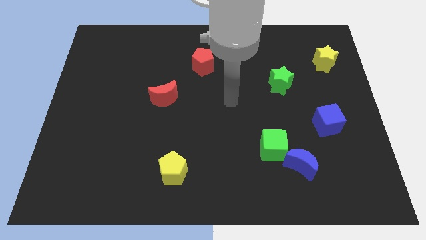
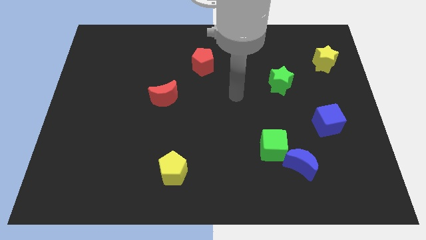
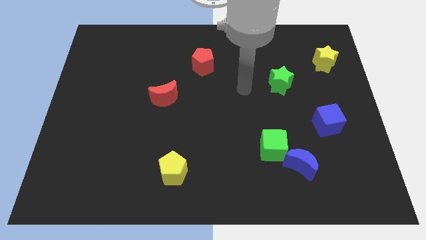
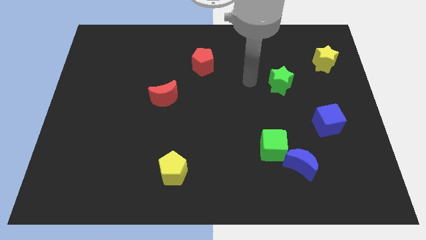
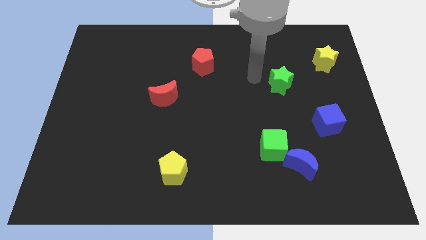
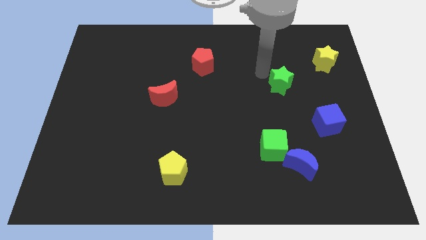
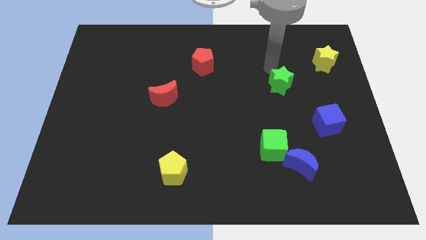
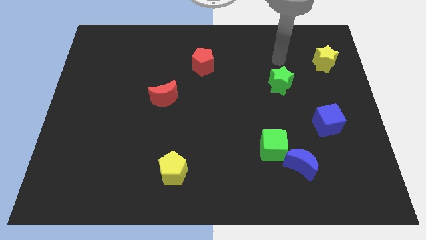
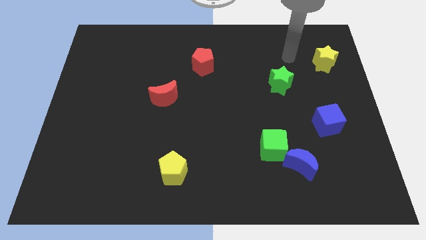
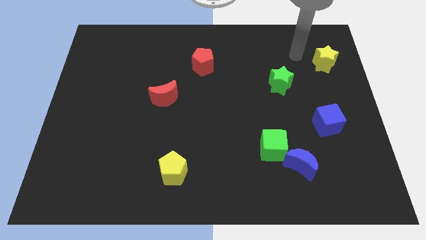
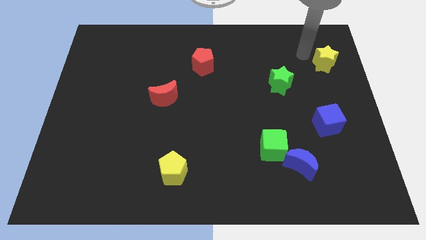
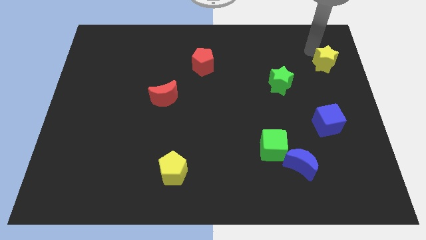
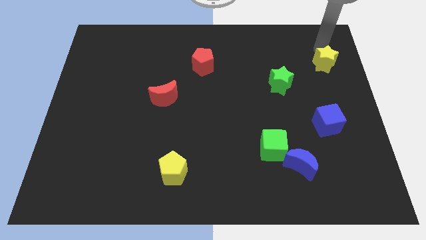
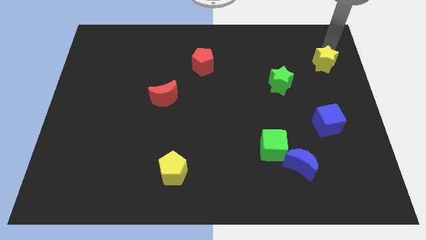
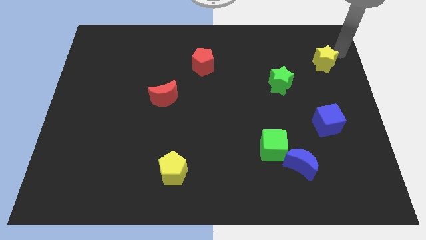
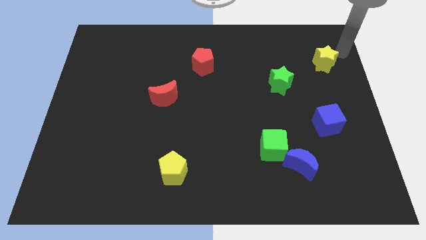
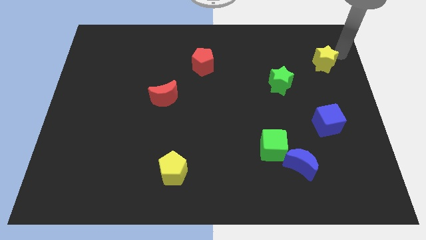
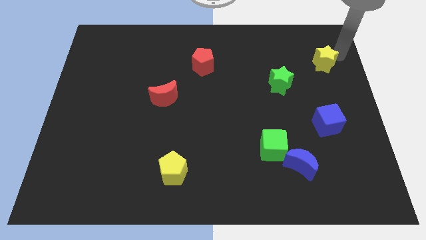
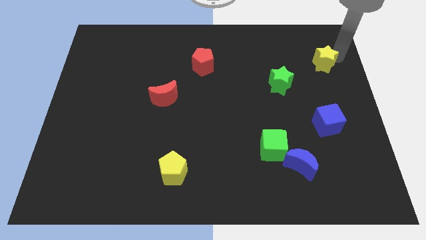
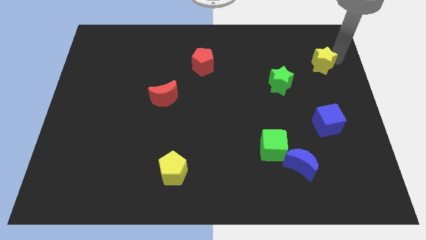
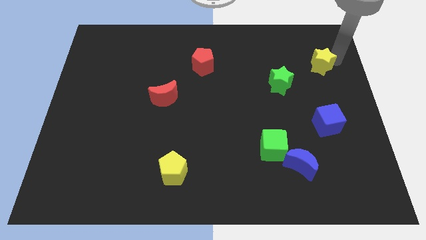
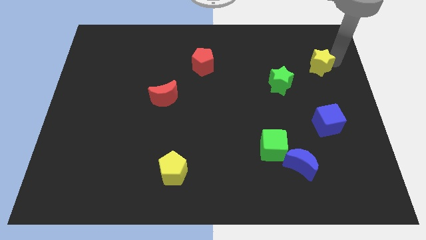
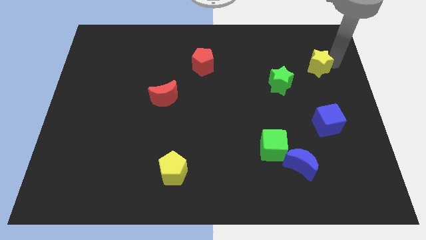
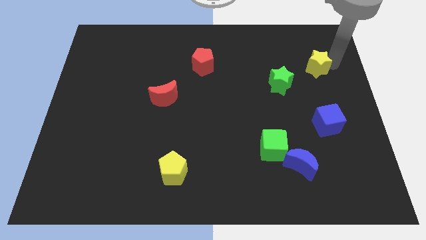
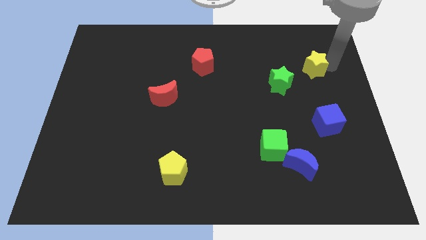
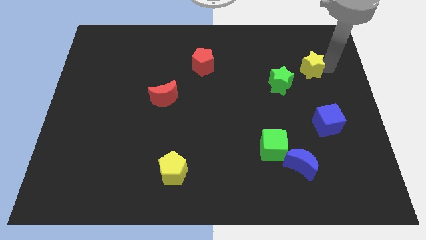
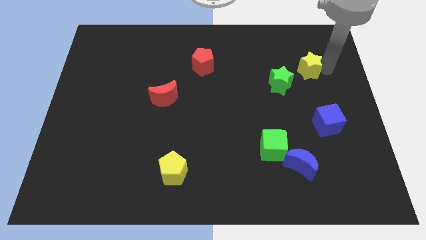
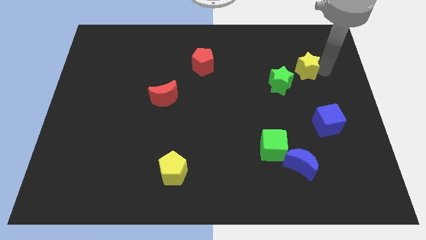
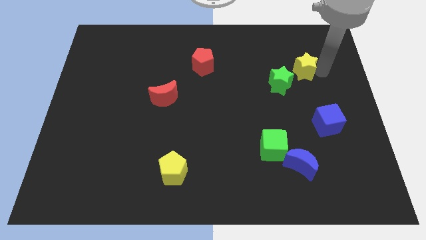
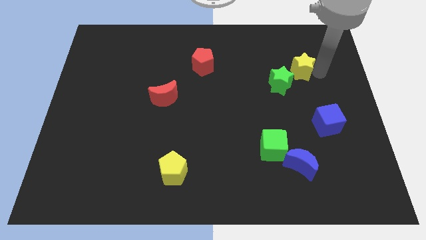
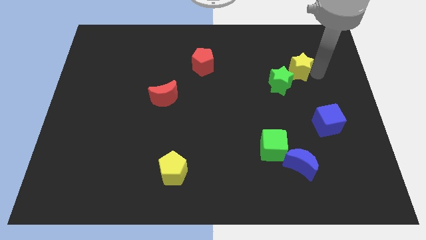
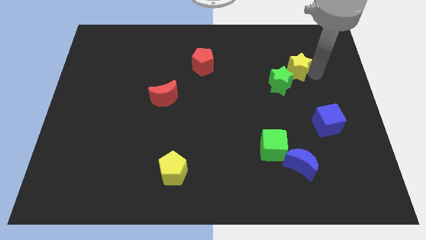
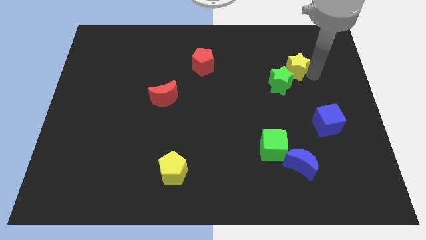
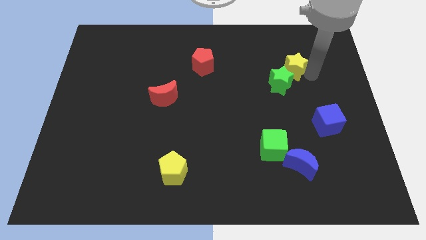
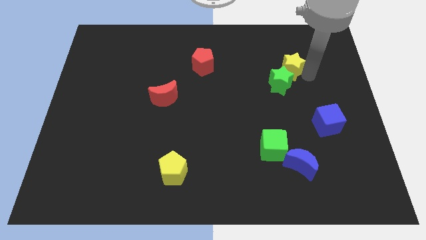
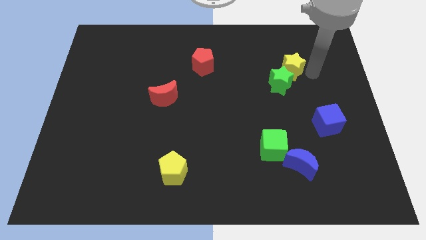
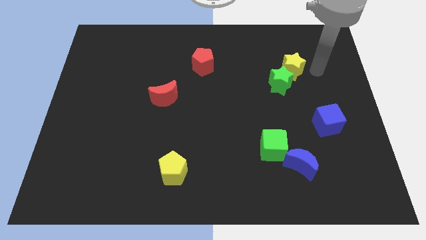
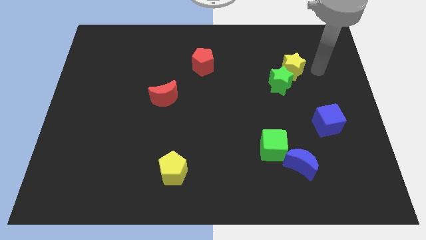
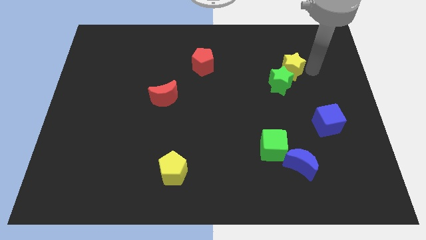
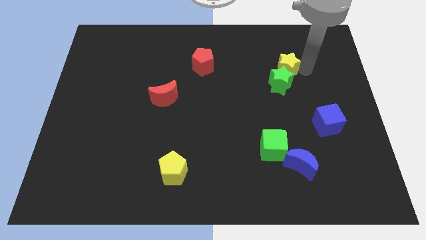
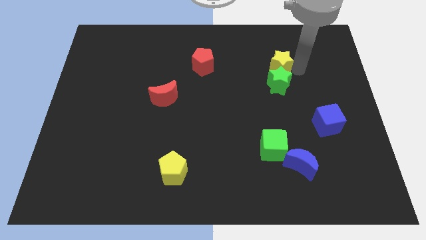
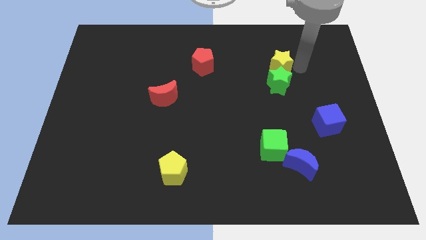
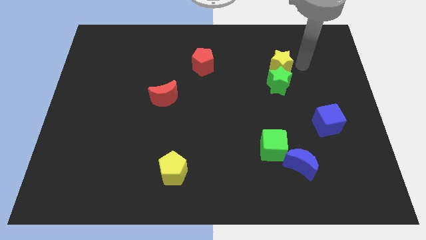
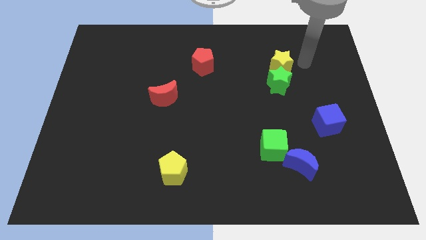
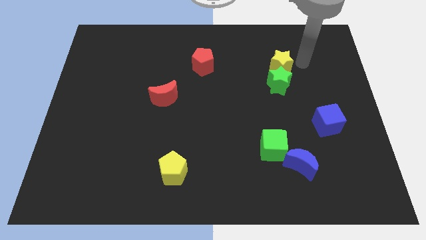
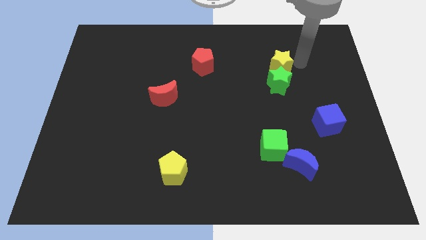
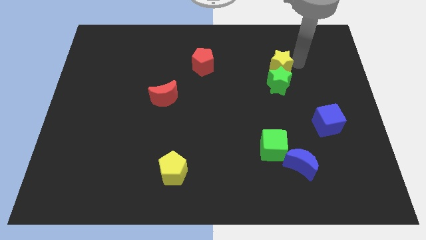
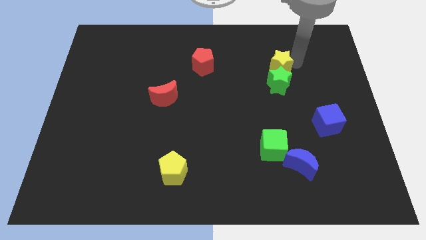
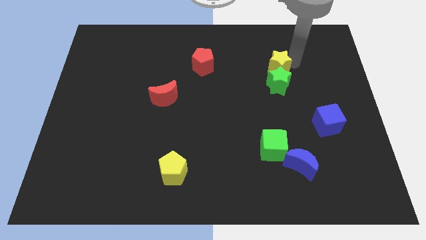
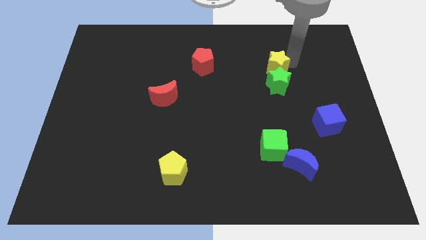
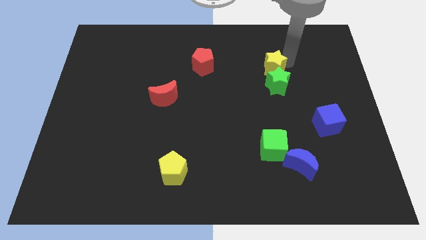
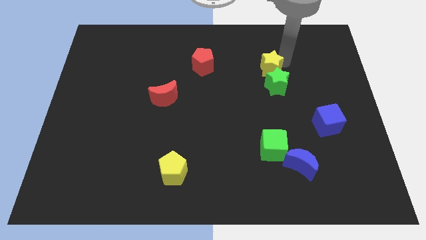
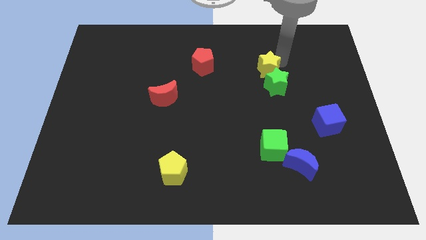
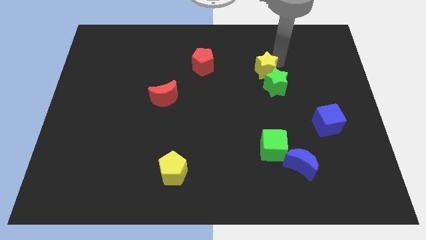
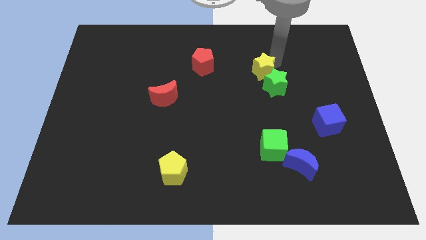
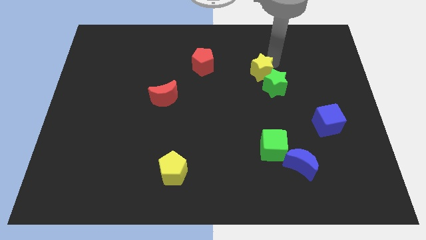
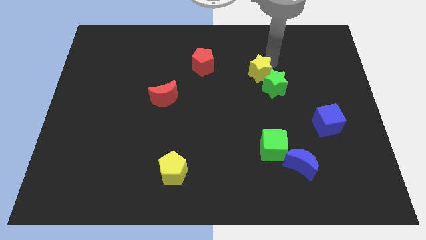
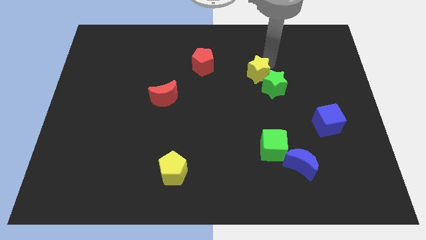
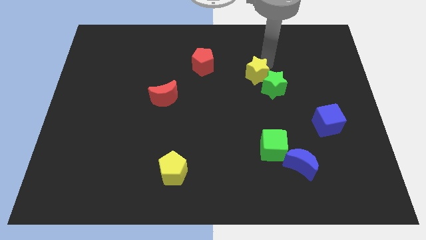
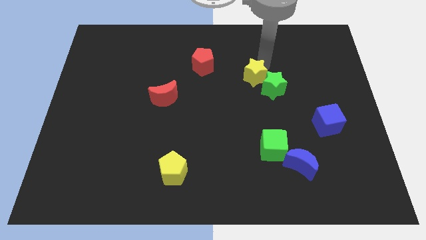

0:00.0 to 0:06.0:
slide the yellow star to the left side of the green star
